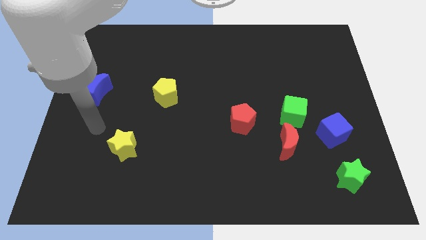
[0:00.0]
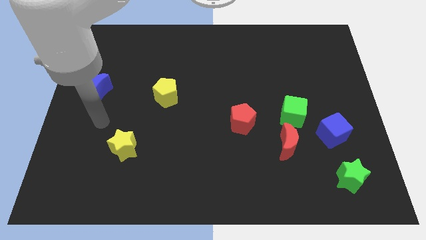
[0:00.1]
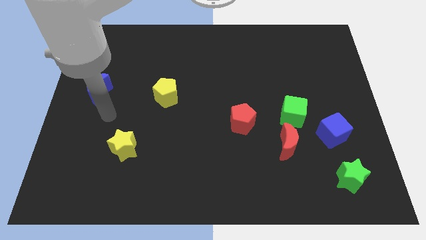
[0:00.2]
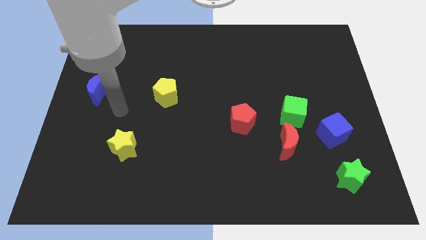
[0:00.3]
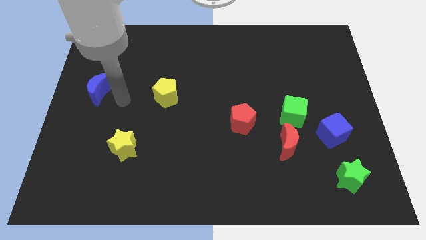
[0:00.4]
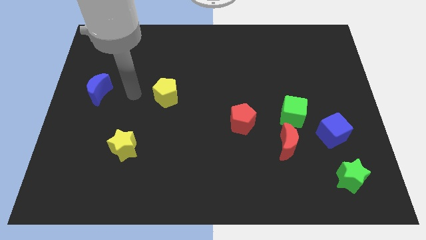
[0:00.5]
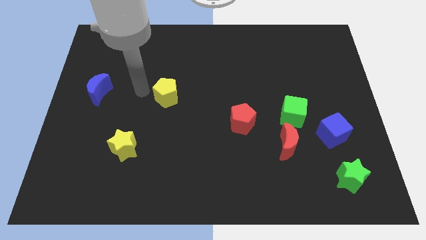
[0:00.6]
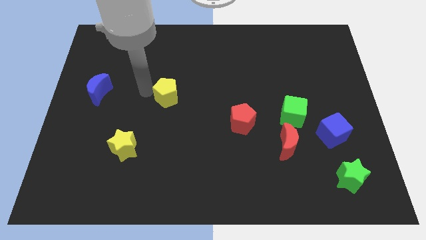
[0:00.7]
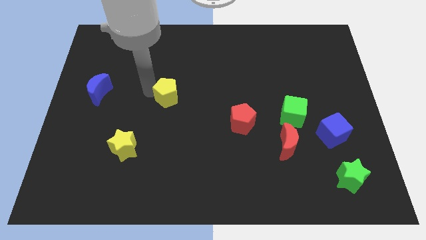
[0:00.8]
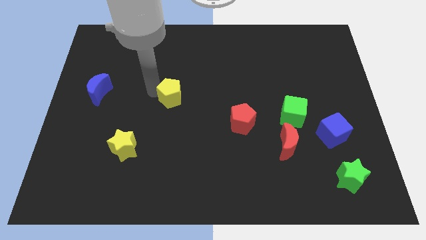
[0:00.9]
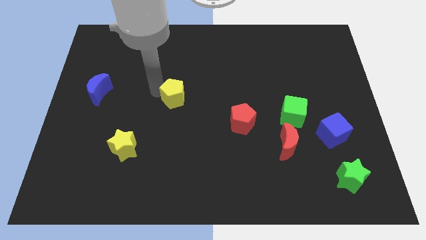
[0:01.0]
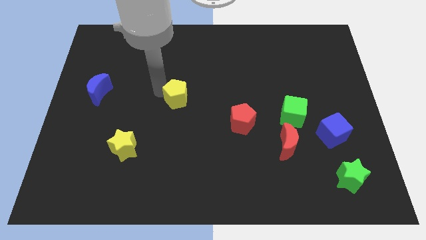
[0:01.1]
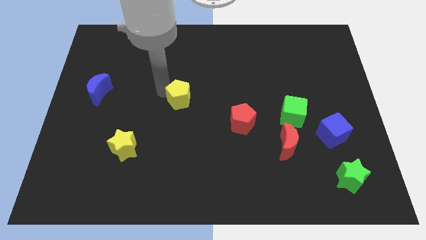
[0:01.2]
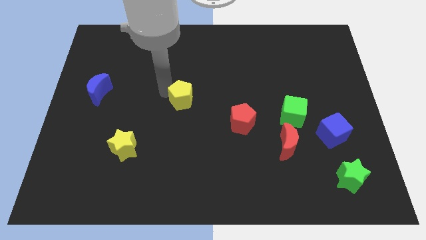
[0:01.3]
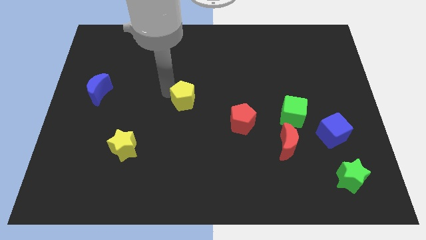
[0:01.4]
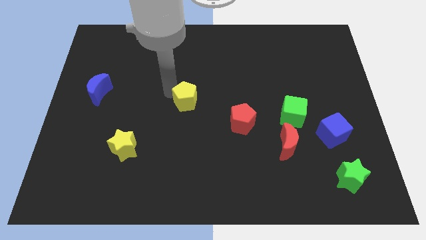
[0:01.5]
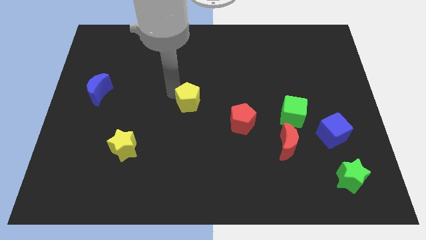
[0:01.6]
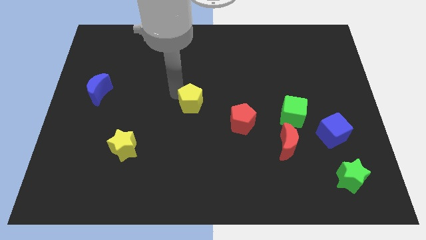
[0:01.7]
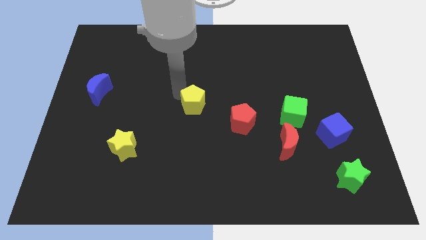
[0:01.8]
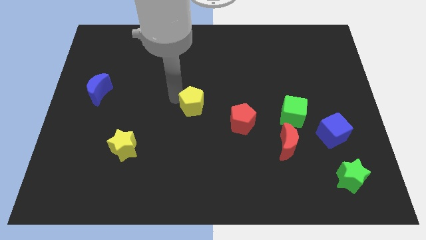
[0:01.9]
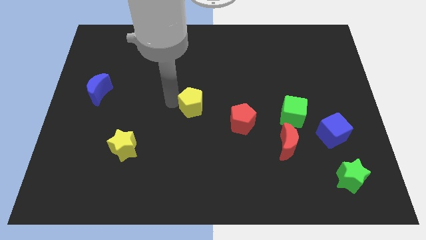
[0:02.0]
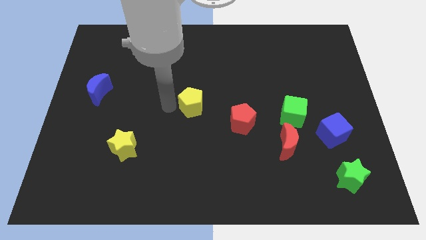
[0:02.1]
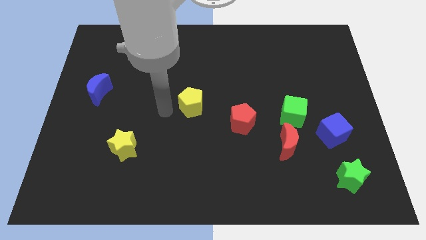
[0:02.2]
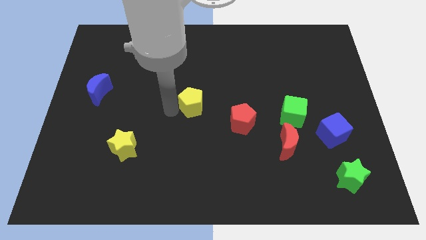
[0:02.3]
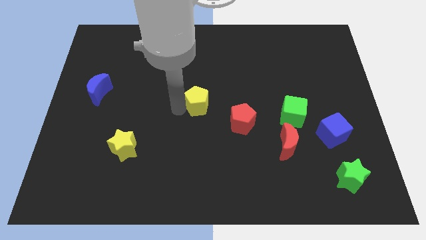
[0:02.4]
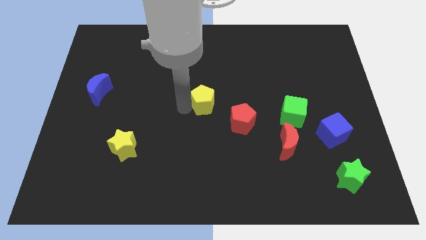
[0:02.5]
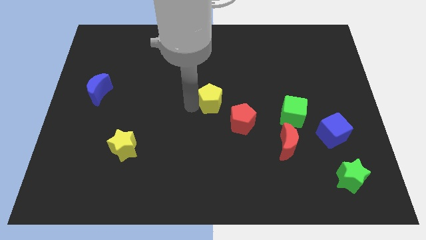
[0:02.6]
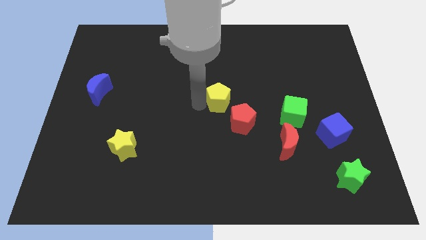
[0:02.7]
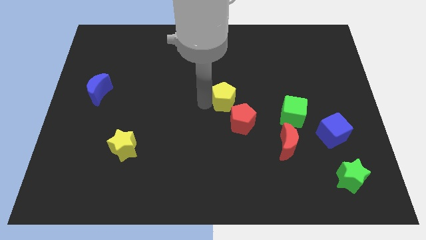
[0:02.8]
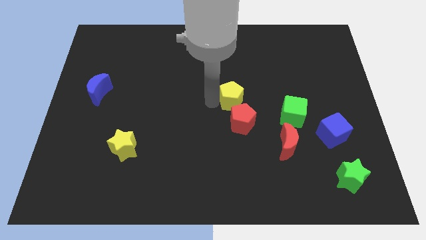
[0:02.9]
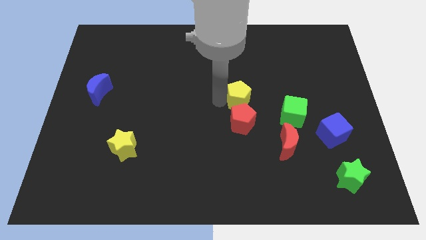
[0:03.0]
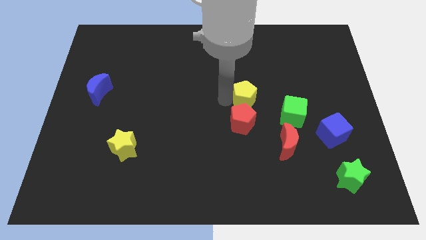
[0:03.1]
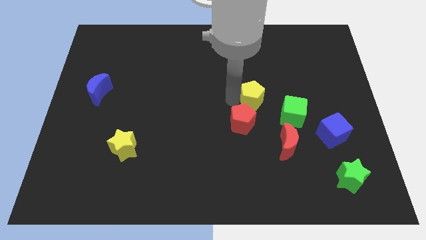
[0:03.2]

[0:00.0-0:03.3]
move the yellow pentagon to the right

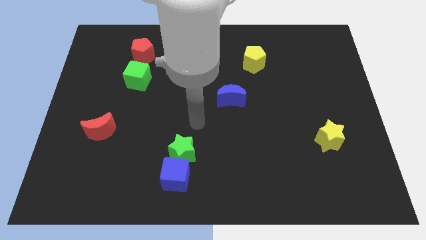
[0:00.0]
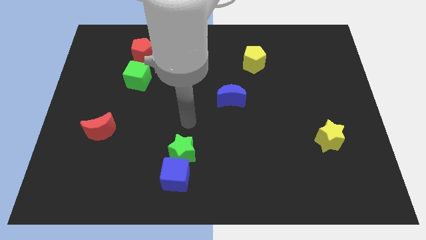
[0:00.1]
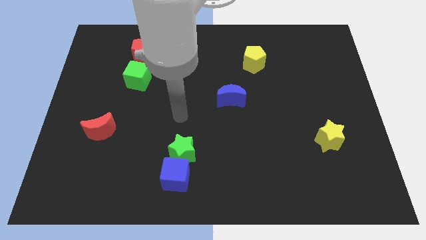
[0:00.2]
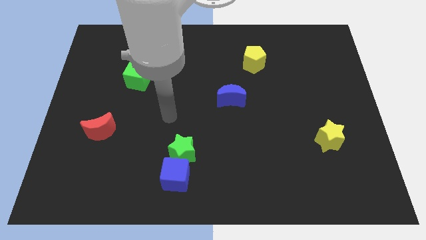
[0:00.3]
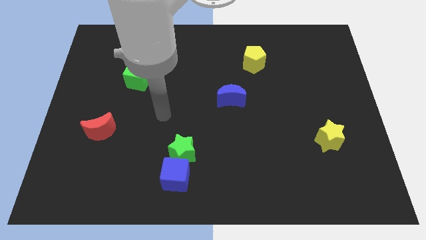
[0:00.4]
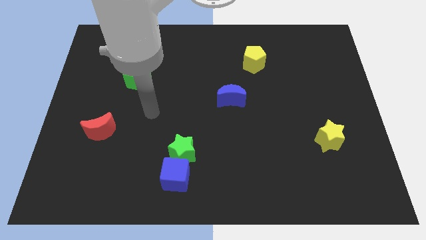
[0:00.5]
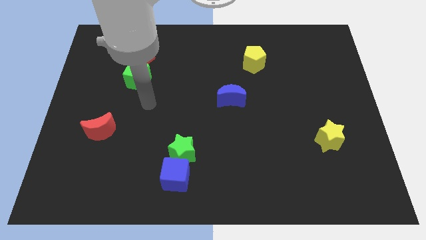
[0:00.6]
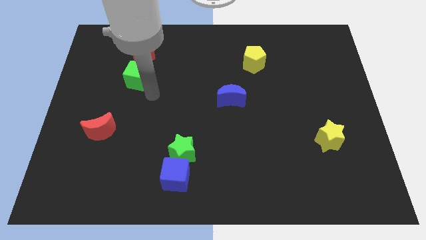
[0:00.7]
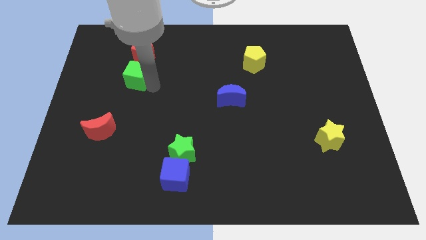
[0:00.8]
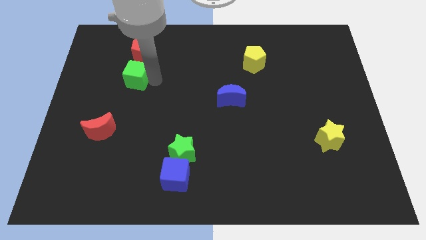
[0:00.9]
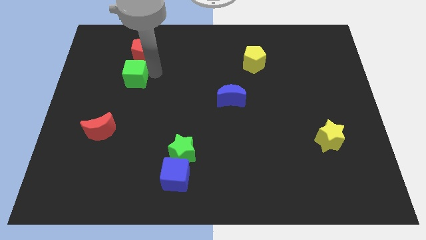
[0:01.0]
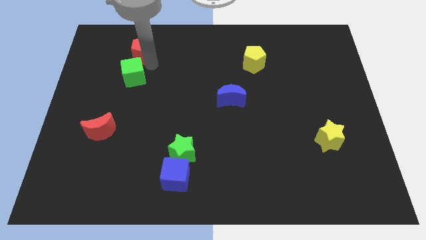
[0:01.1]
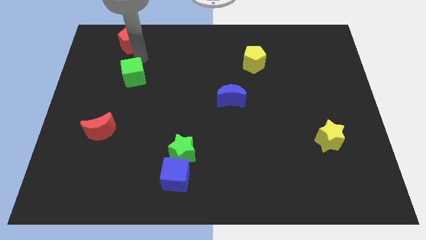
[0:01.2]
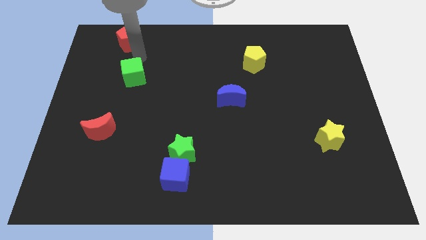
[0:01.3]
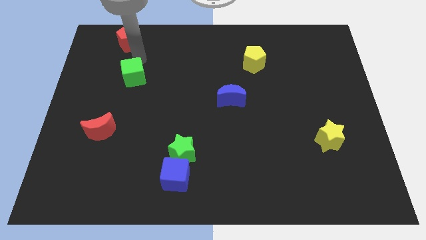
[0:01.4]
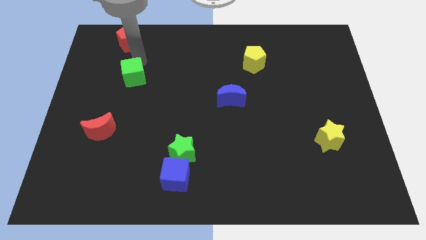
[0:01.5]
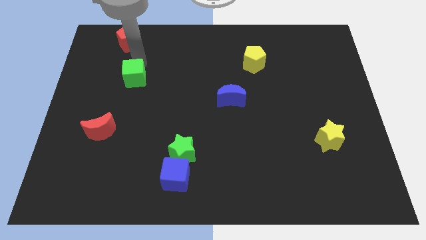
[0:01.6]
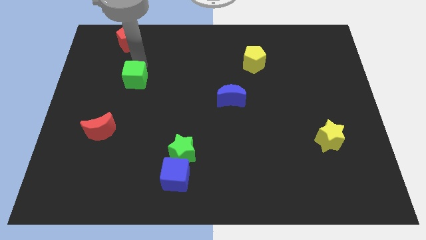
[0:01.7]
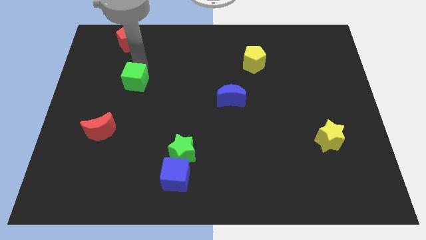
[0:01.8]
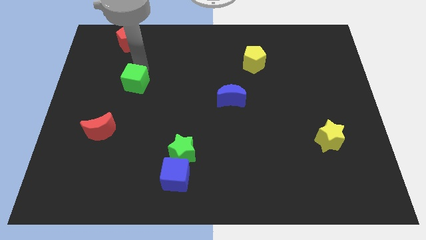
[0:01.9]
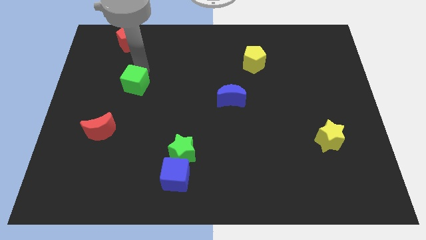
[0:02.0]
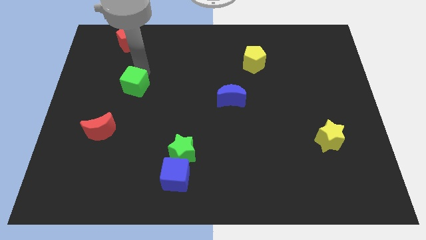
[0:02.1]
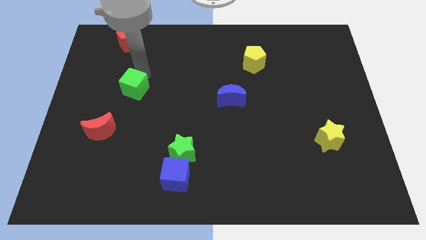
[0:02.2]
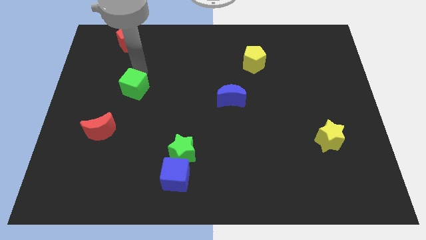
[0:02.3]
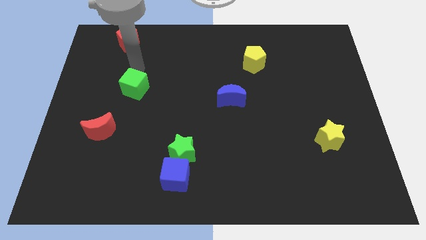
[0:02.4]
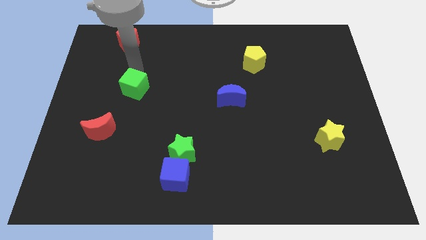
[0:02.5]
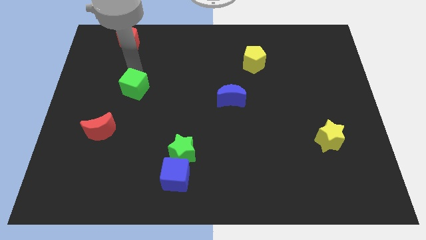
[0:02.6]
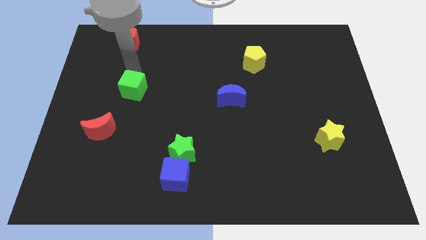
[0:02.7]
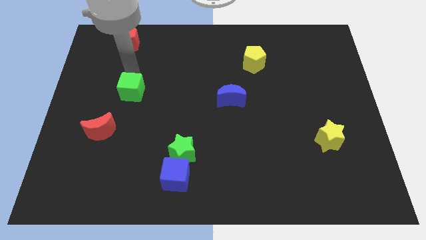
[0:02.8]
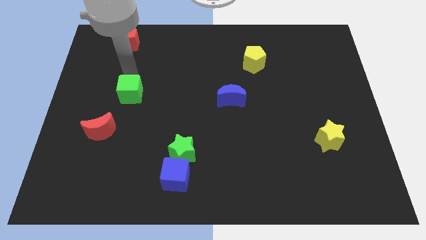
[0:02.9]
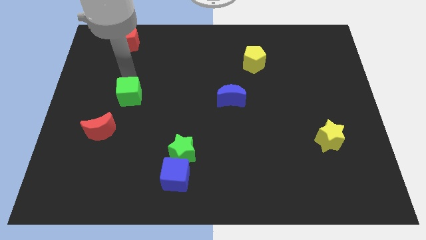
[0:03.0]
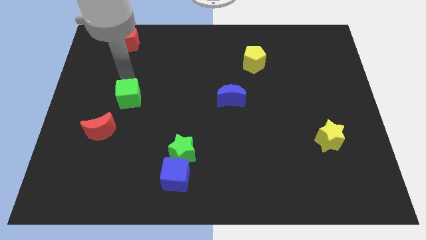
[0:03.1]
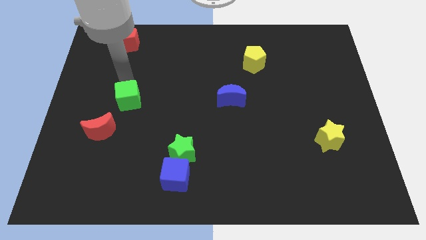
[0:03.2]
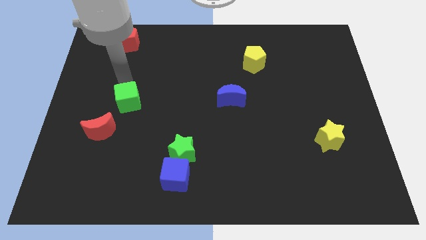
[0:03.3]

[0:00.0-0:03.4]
slide the green cube a little bit down

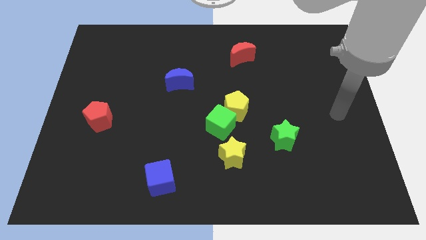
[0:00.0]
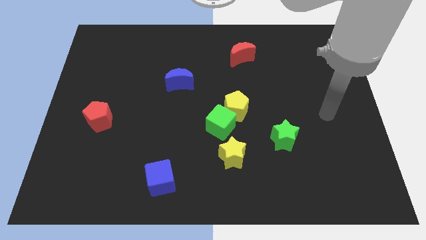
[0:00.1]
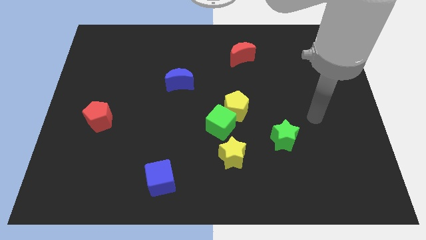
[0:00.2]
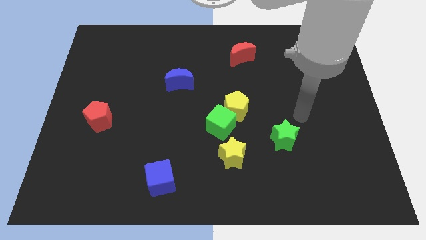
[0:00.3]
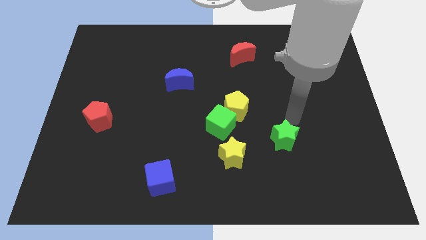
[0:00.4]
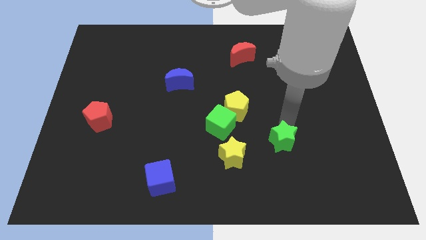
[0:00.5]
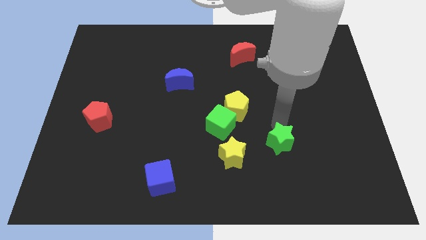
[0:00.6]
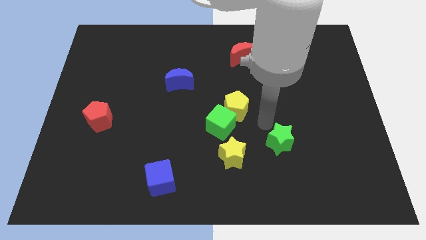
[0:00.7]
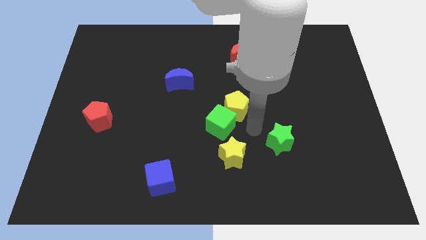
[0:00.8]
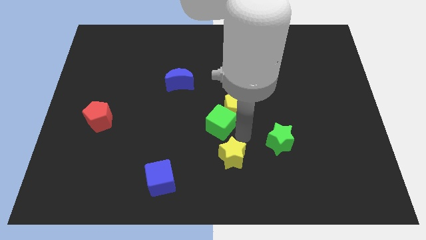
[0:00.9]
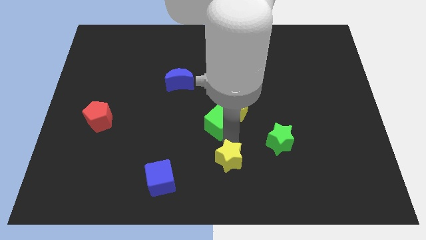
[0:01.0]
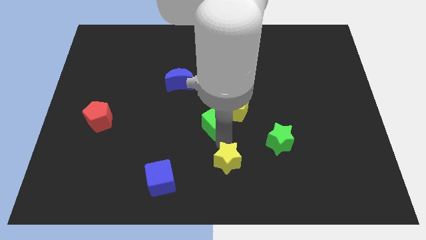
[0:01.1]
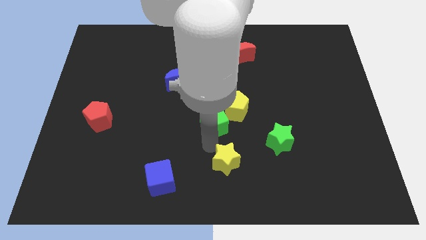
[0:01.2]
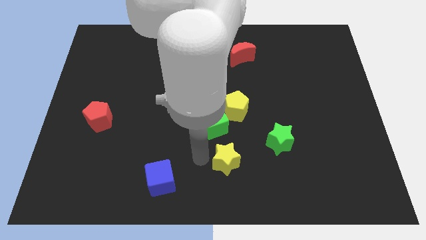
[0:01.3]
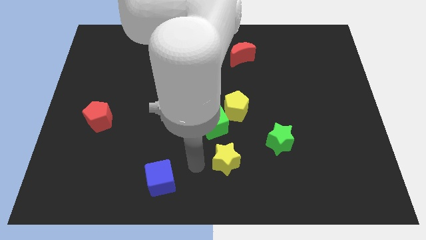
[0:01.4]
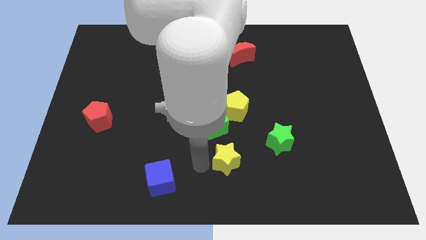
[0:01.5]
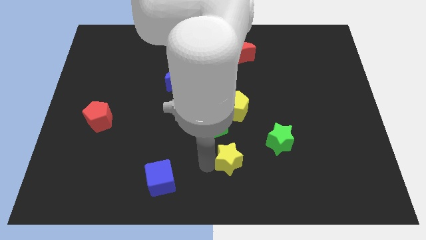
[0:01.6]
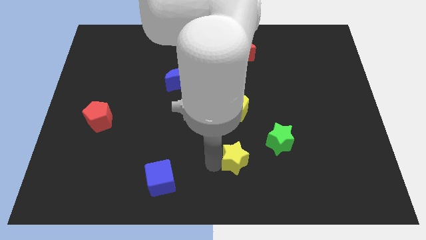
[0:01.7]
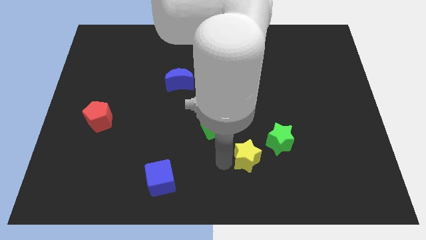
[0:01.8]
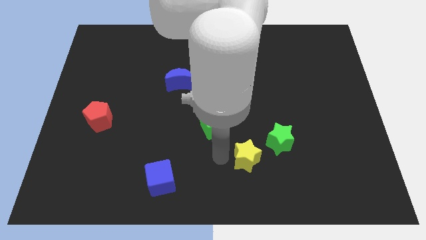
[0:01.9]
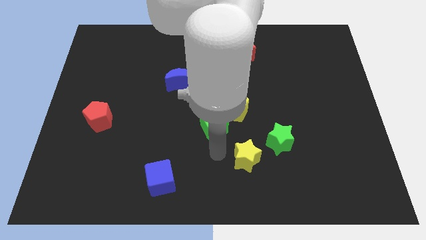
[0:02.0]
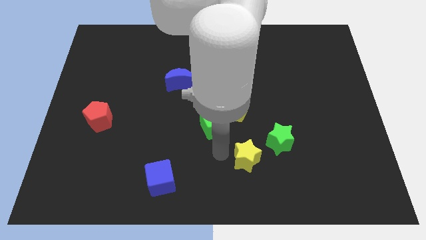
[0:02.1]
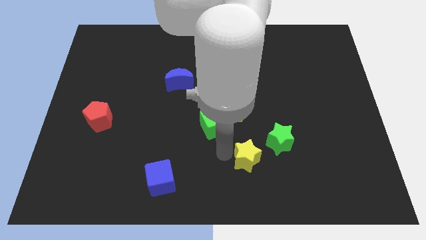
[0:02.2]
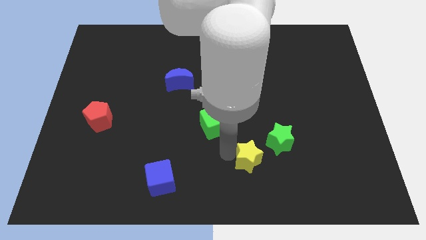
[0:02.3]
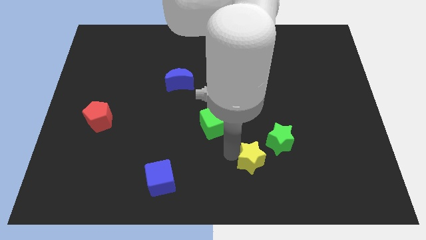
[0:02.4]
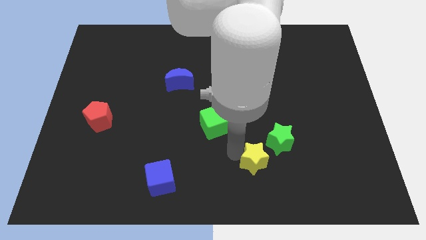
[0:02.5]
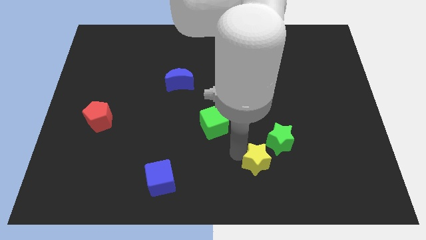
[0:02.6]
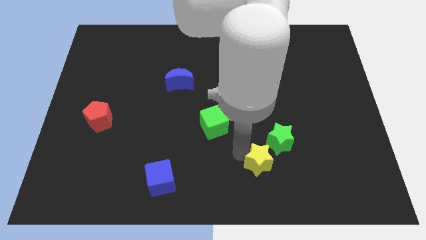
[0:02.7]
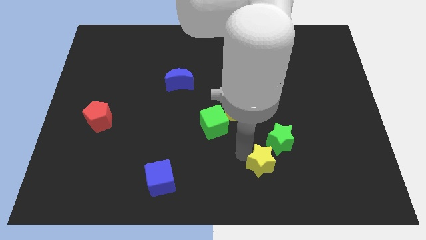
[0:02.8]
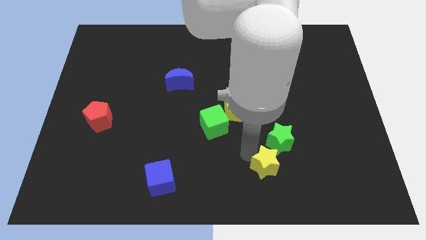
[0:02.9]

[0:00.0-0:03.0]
push the yellow star slightly to the right
